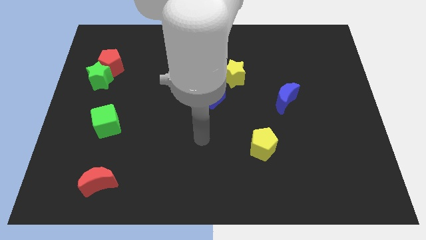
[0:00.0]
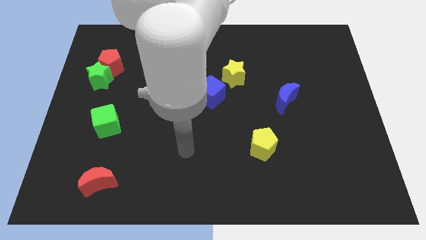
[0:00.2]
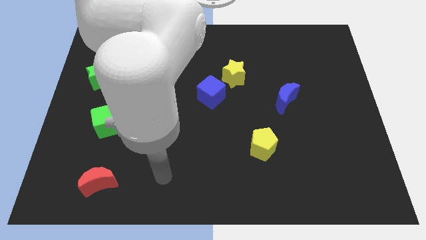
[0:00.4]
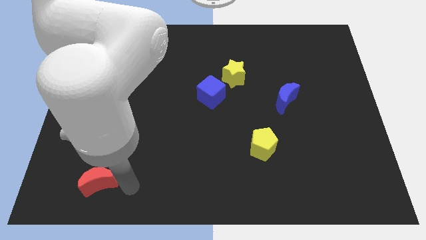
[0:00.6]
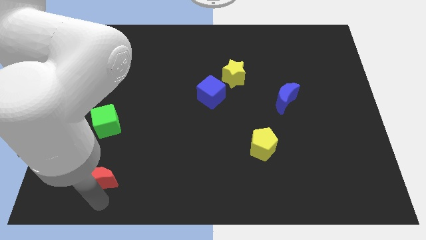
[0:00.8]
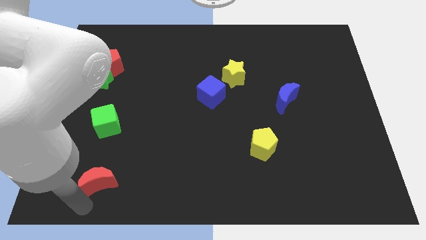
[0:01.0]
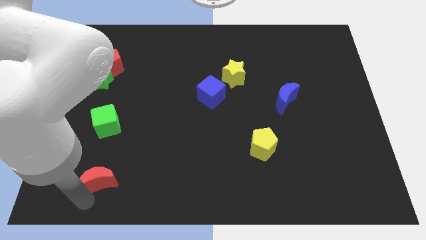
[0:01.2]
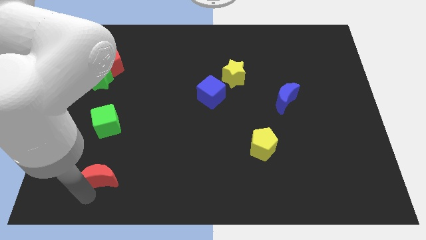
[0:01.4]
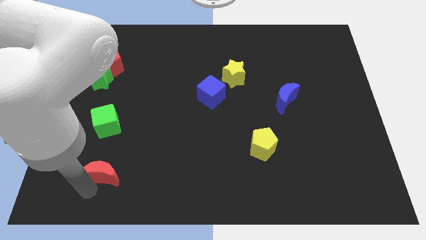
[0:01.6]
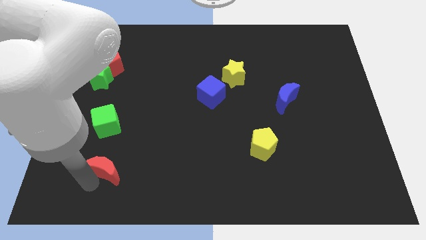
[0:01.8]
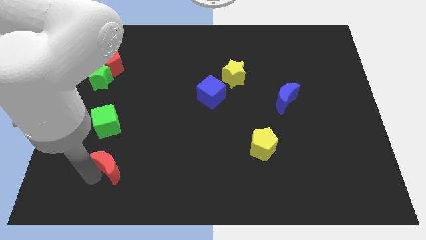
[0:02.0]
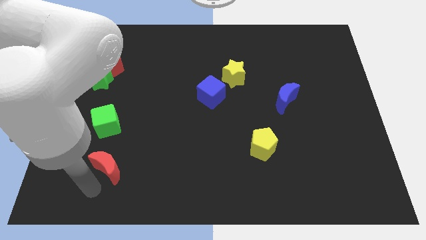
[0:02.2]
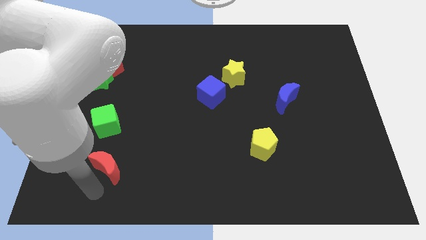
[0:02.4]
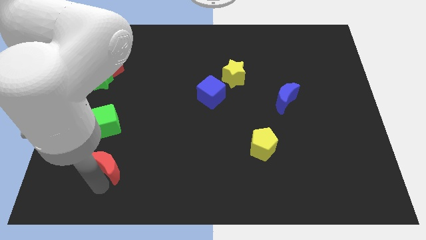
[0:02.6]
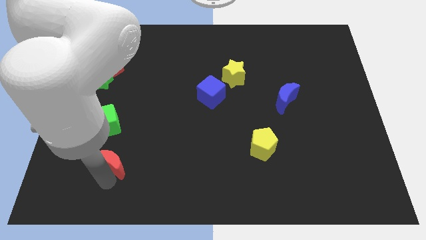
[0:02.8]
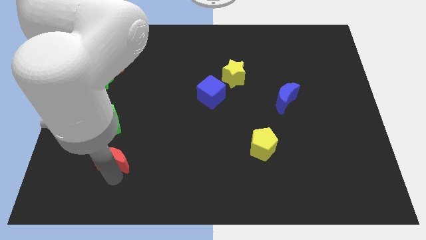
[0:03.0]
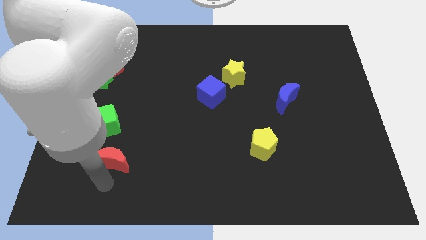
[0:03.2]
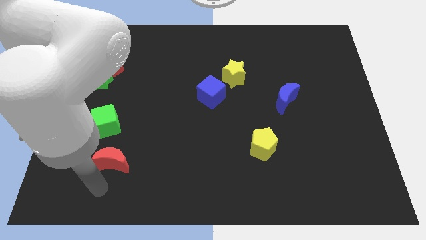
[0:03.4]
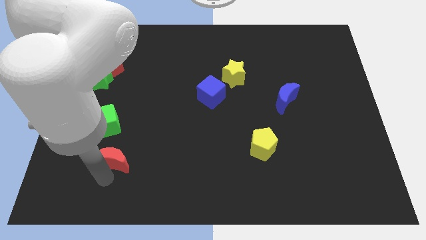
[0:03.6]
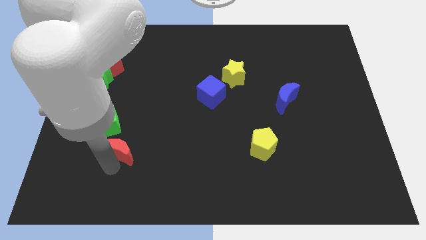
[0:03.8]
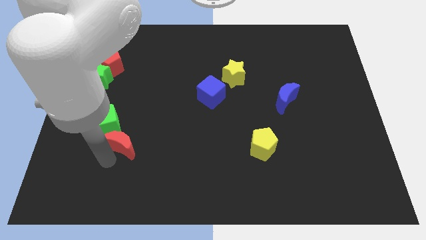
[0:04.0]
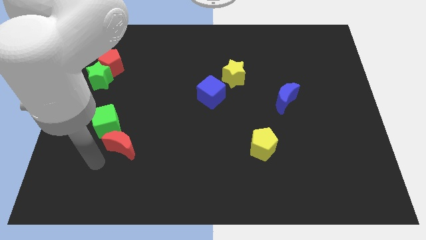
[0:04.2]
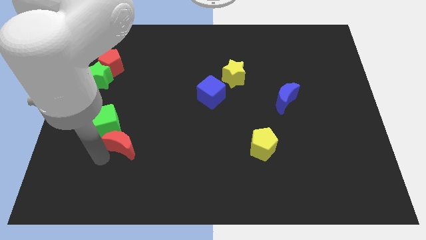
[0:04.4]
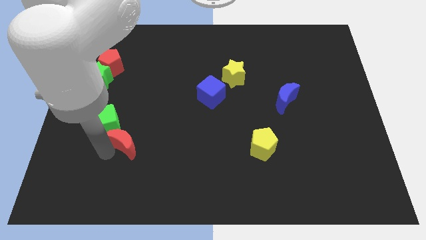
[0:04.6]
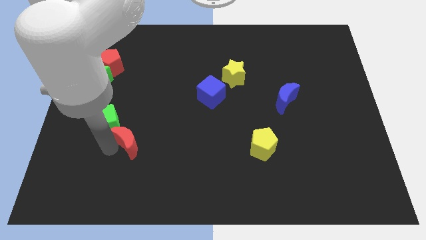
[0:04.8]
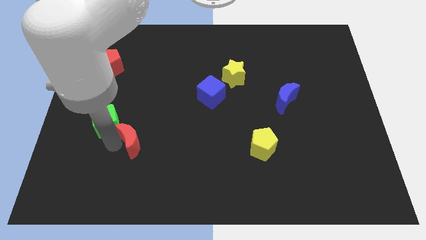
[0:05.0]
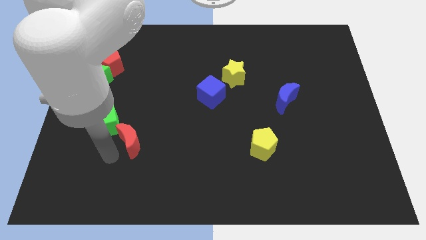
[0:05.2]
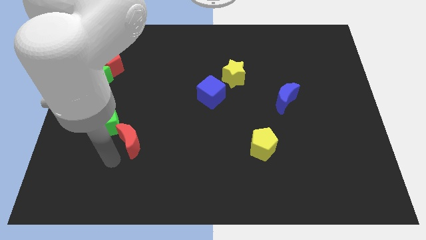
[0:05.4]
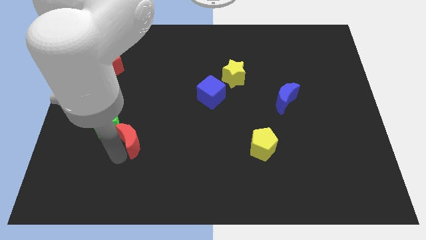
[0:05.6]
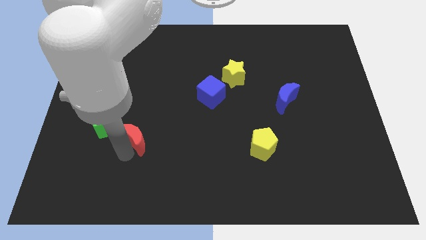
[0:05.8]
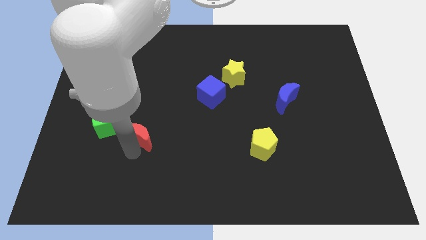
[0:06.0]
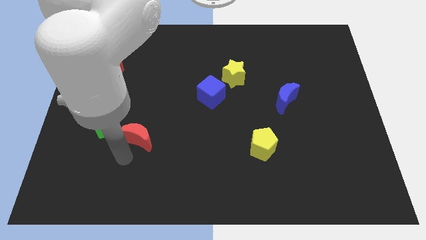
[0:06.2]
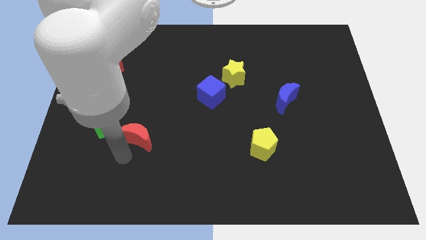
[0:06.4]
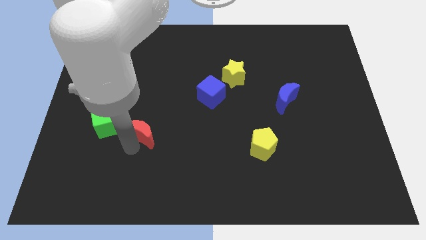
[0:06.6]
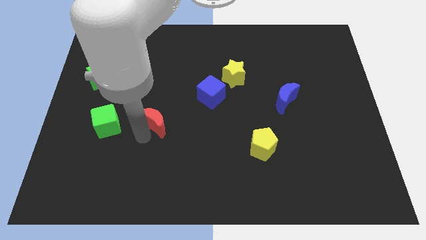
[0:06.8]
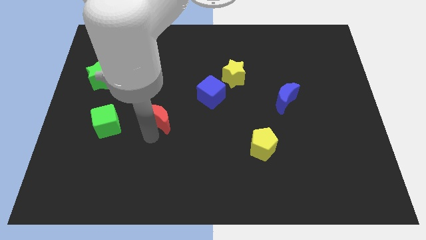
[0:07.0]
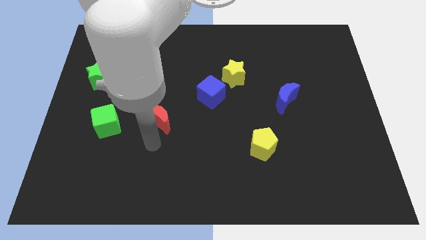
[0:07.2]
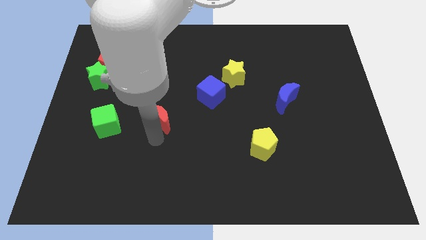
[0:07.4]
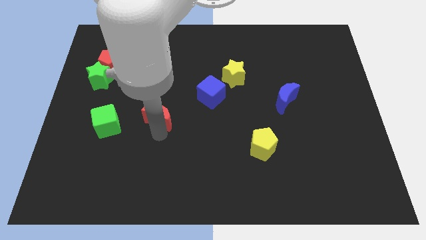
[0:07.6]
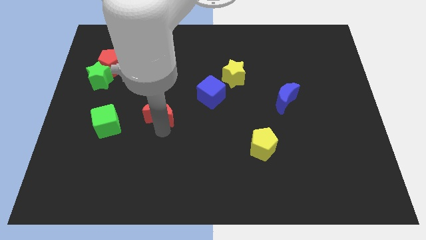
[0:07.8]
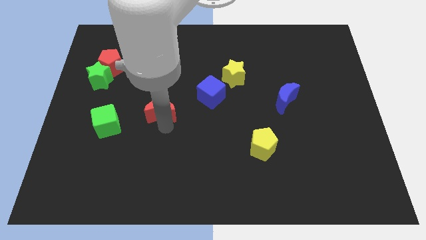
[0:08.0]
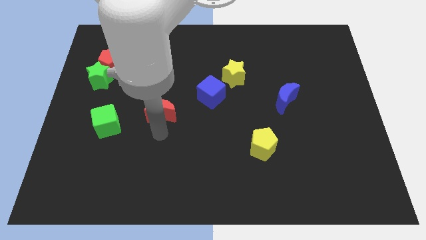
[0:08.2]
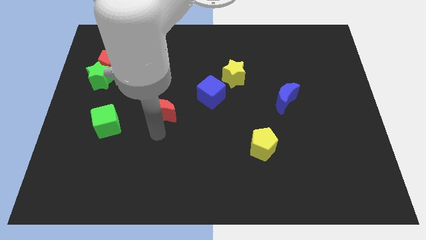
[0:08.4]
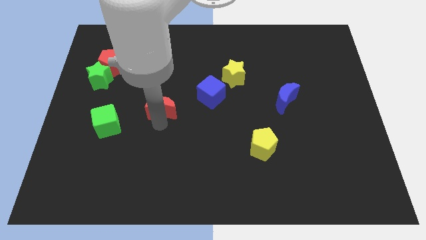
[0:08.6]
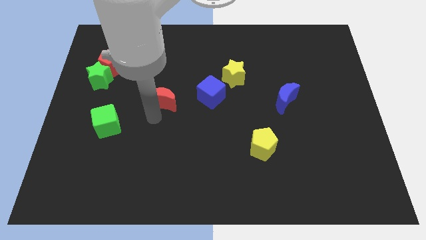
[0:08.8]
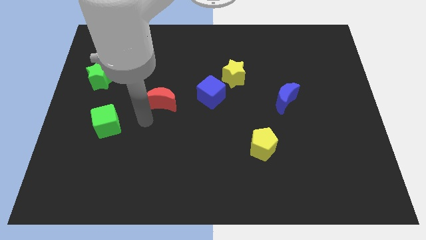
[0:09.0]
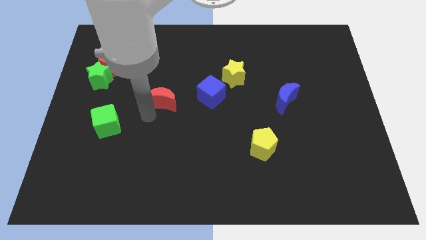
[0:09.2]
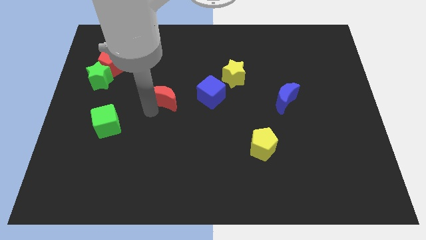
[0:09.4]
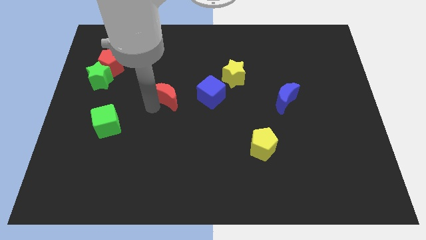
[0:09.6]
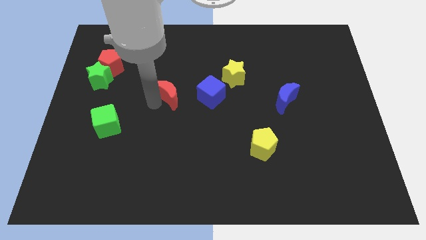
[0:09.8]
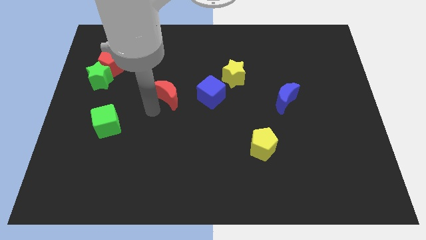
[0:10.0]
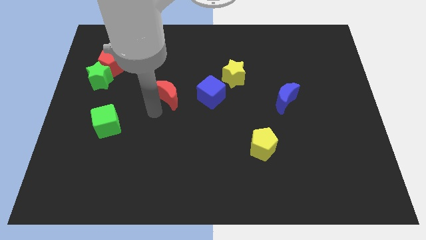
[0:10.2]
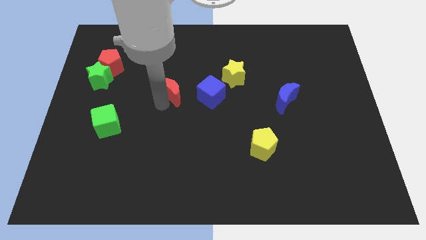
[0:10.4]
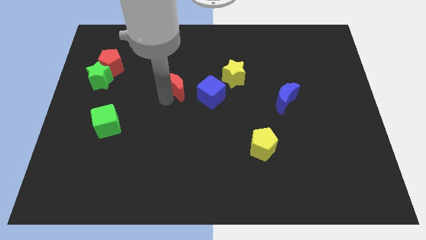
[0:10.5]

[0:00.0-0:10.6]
slide the red moon to the top left side of the blue cube

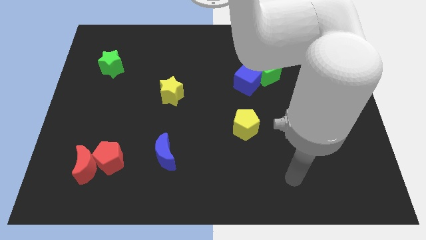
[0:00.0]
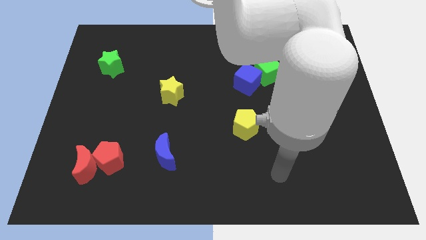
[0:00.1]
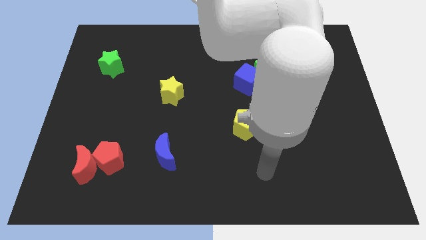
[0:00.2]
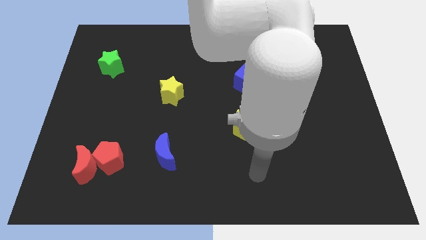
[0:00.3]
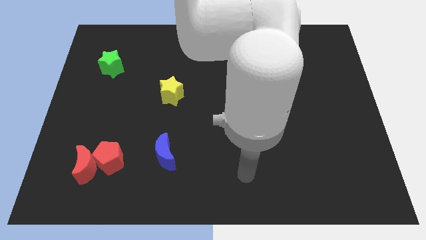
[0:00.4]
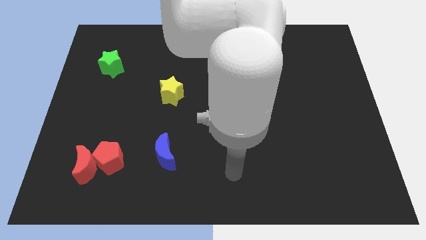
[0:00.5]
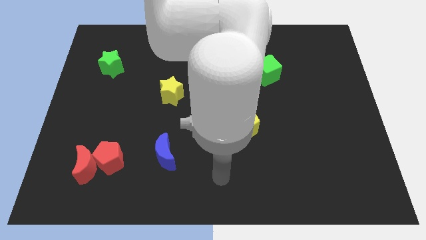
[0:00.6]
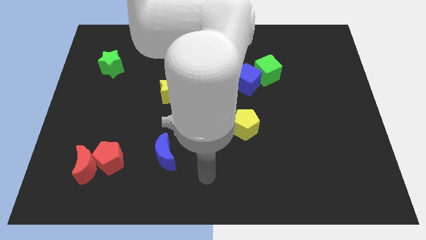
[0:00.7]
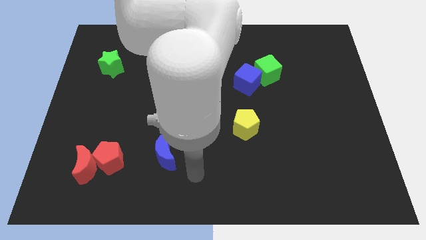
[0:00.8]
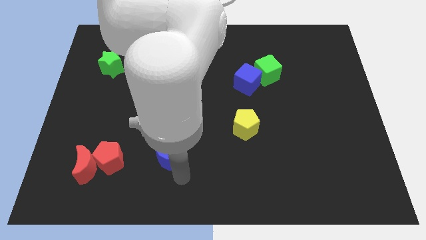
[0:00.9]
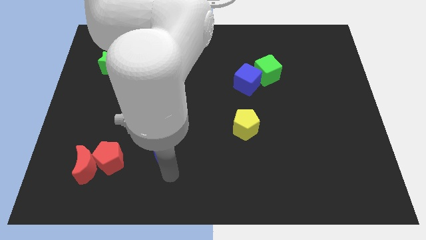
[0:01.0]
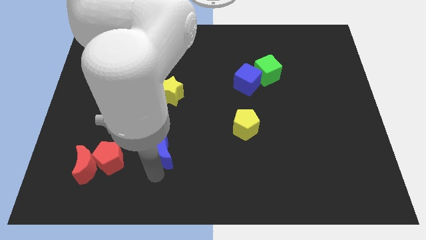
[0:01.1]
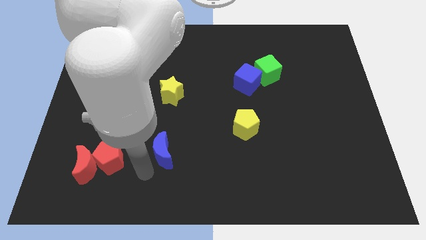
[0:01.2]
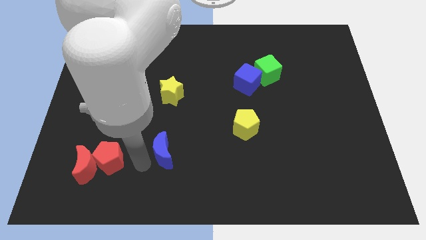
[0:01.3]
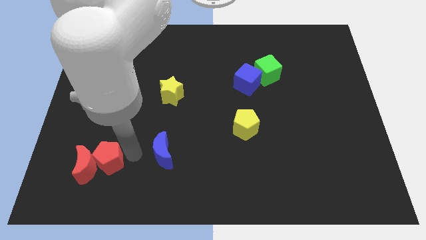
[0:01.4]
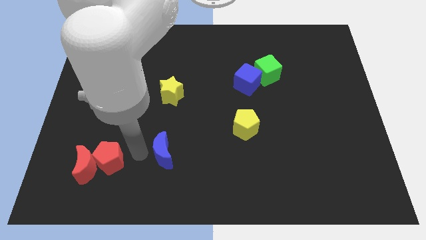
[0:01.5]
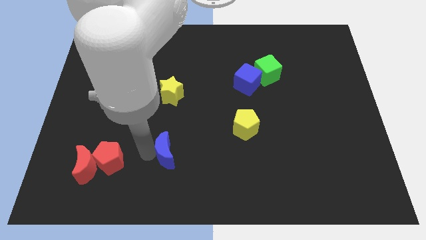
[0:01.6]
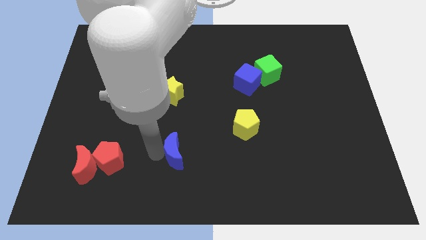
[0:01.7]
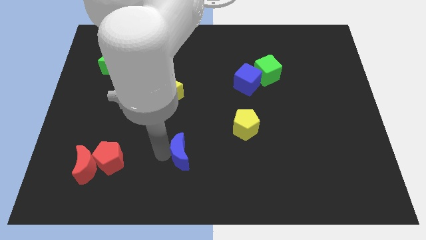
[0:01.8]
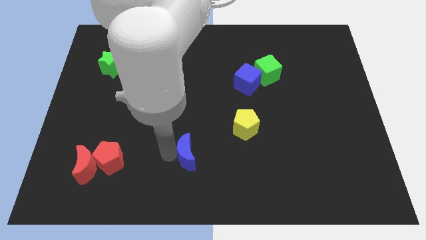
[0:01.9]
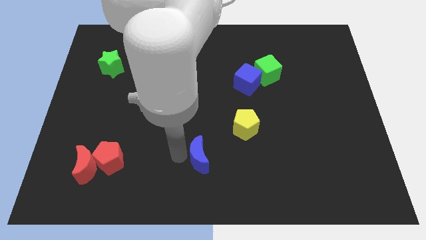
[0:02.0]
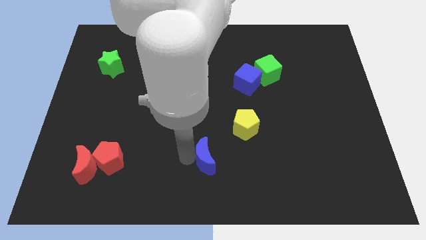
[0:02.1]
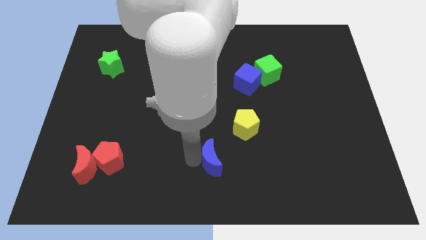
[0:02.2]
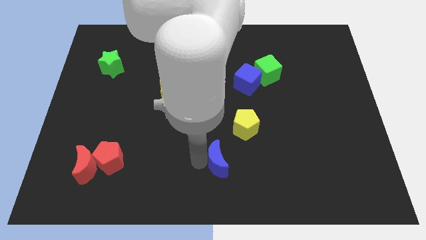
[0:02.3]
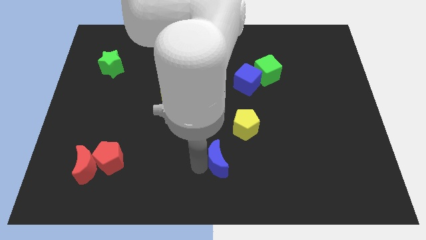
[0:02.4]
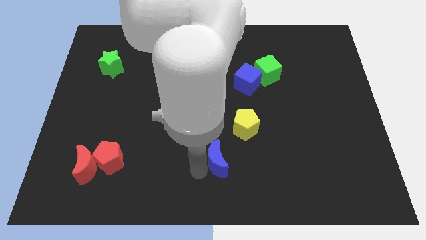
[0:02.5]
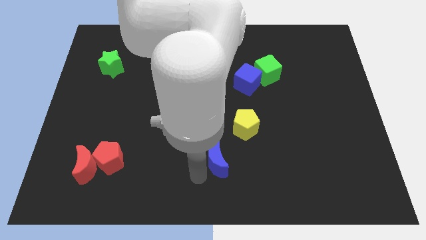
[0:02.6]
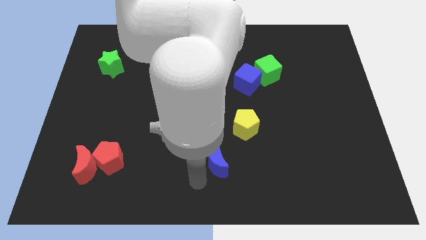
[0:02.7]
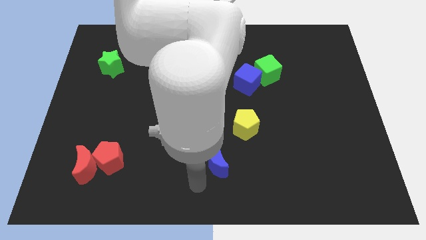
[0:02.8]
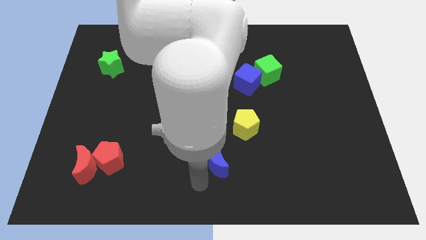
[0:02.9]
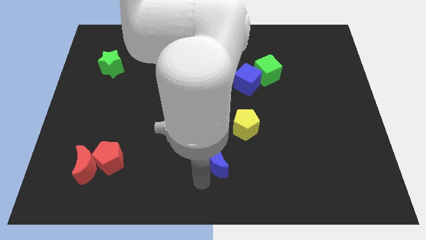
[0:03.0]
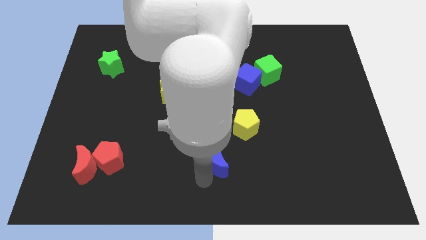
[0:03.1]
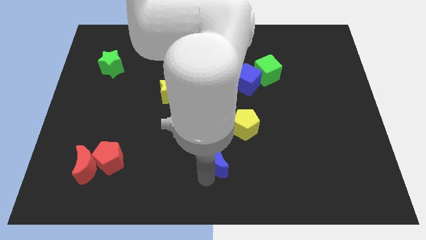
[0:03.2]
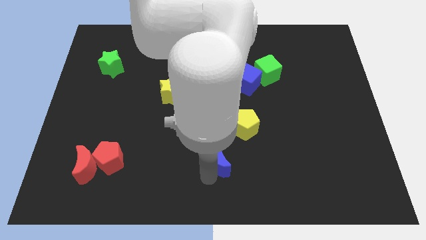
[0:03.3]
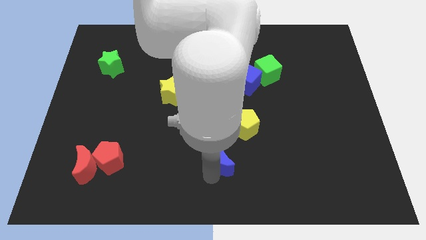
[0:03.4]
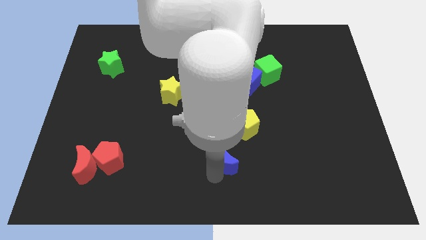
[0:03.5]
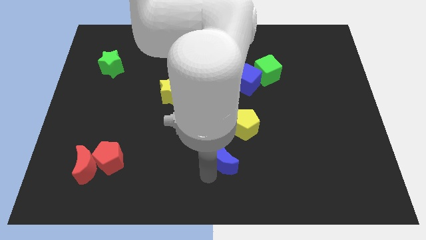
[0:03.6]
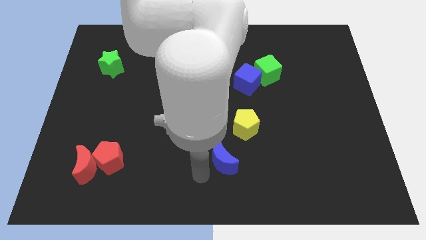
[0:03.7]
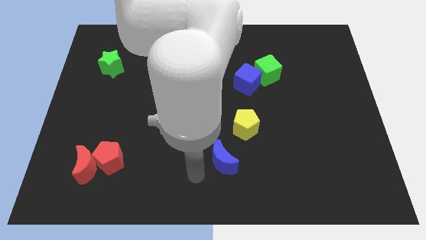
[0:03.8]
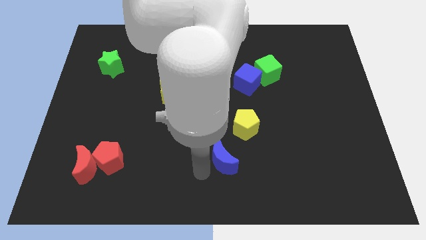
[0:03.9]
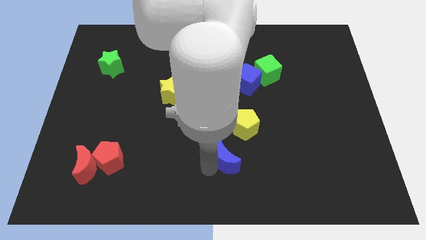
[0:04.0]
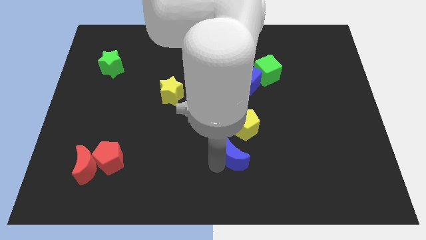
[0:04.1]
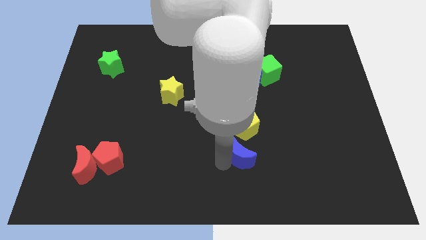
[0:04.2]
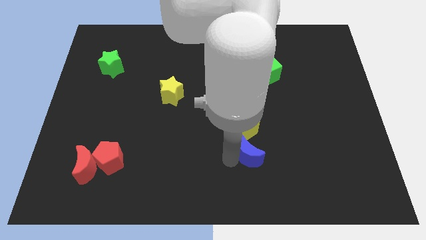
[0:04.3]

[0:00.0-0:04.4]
slide the blue moon to the bottom right of the yellow pentagon
